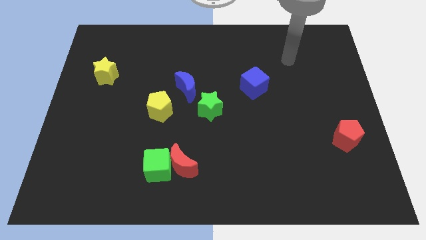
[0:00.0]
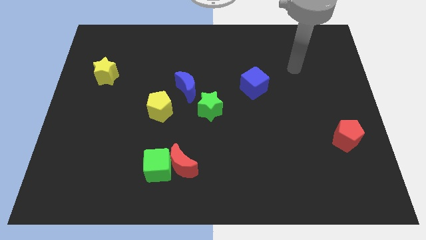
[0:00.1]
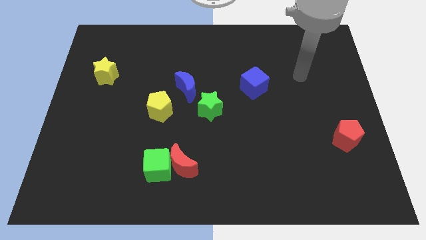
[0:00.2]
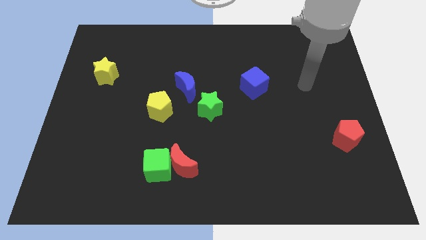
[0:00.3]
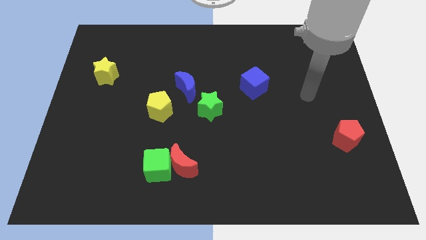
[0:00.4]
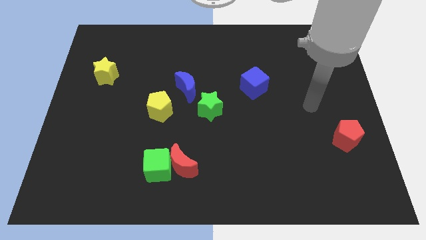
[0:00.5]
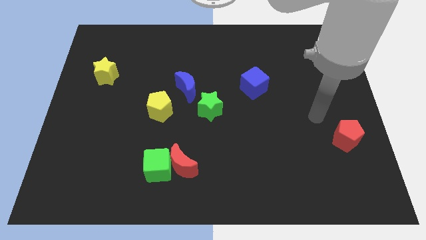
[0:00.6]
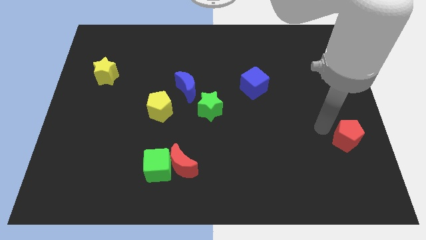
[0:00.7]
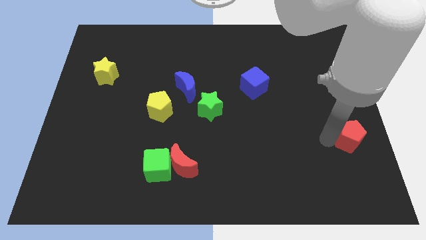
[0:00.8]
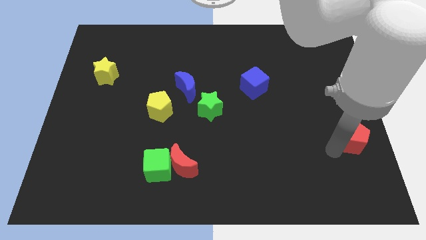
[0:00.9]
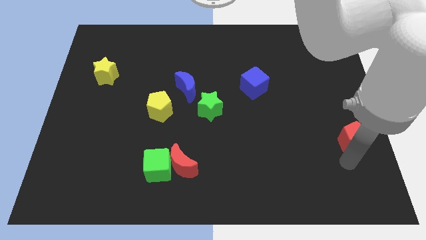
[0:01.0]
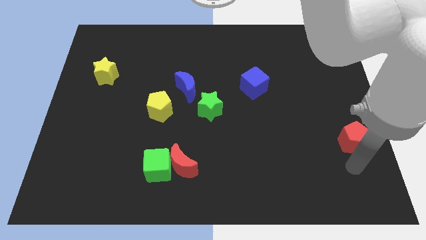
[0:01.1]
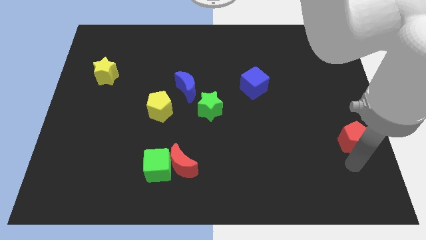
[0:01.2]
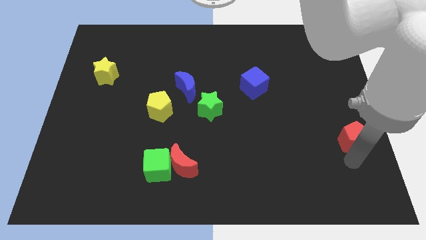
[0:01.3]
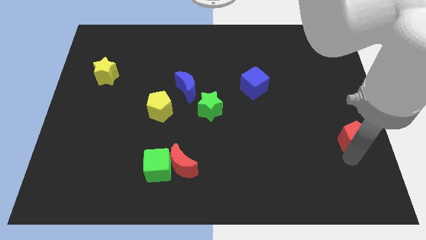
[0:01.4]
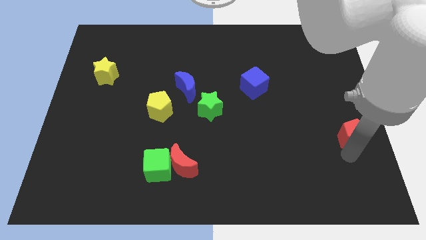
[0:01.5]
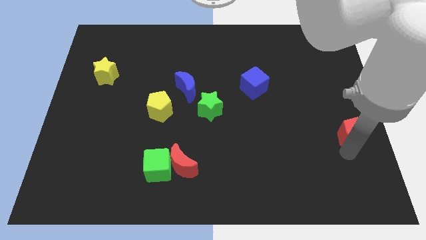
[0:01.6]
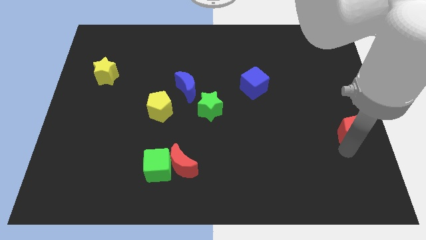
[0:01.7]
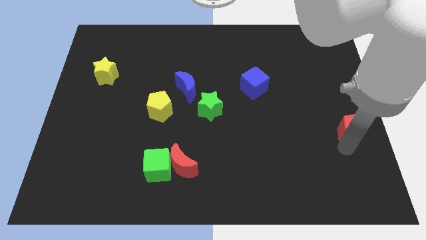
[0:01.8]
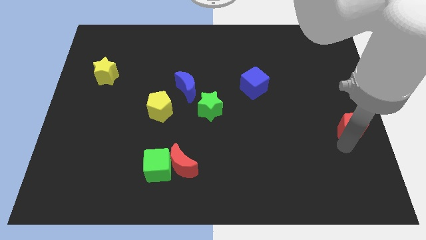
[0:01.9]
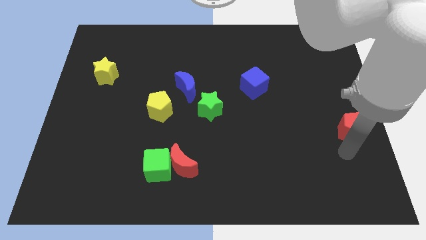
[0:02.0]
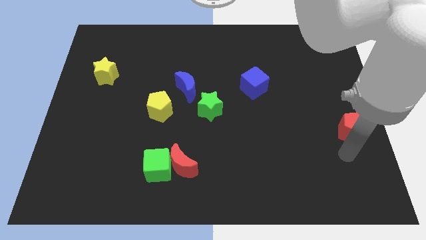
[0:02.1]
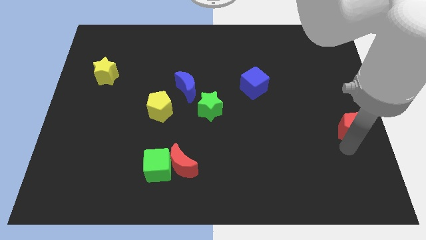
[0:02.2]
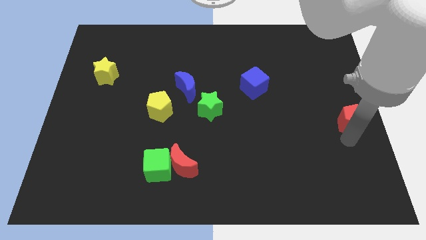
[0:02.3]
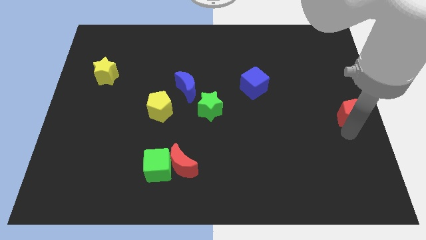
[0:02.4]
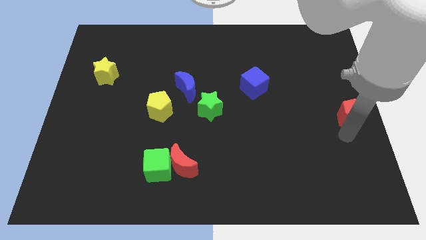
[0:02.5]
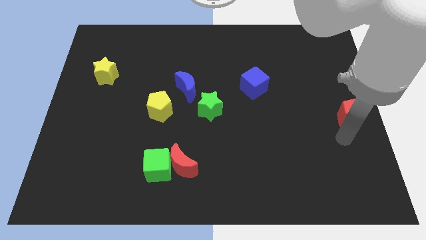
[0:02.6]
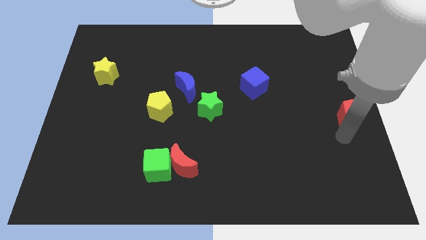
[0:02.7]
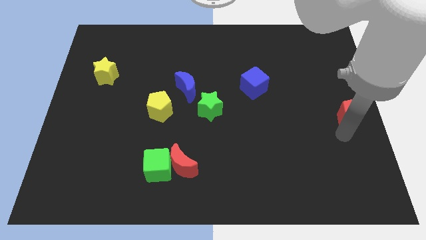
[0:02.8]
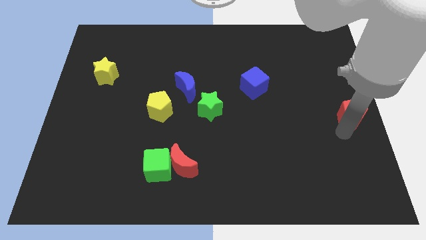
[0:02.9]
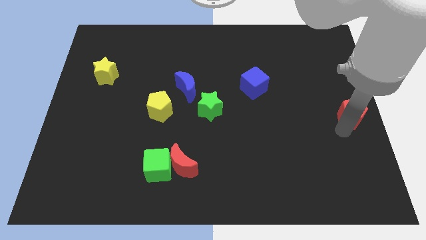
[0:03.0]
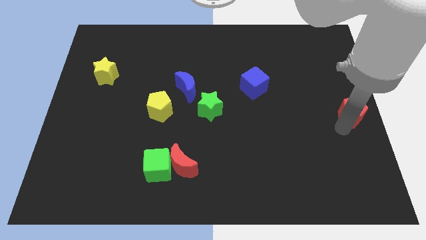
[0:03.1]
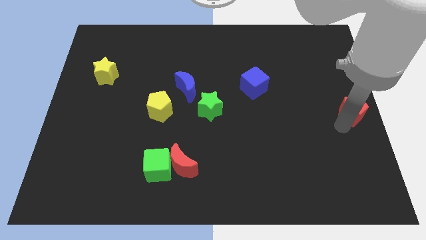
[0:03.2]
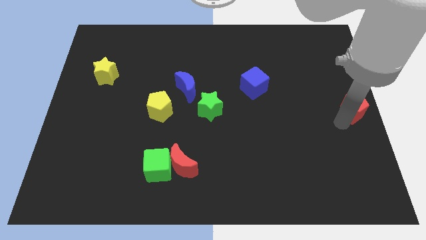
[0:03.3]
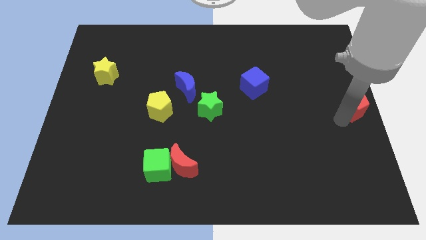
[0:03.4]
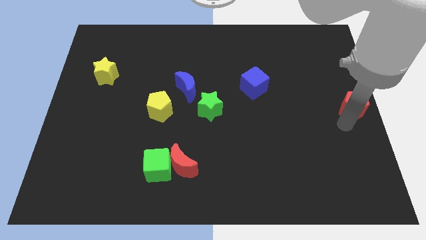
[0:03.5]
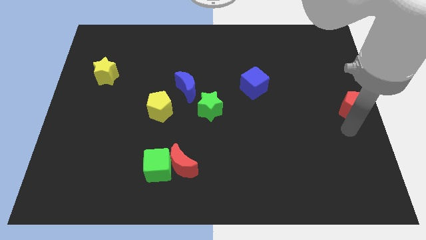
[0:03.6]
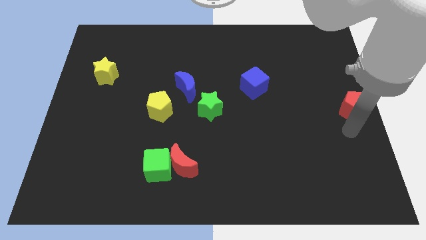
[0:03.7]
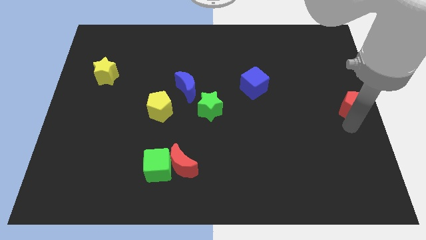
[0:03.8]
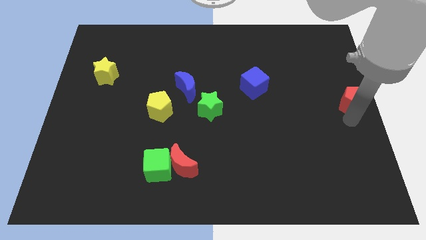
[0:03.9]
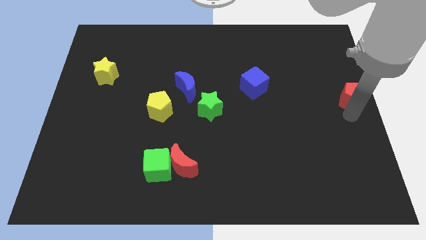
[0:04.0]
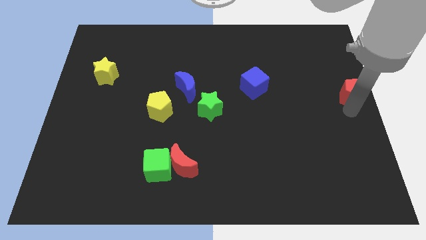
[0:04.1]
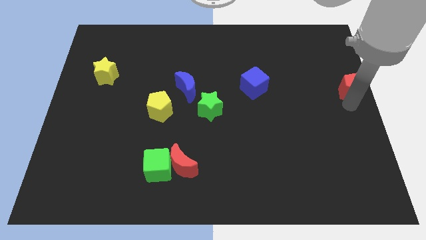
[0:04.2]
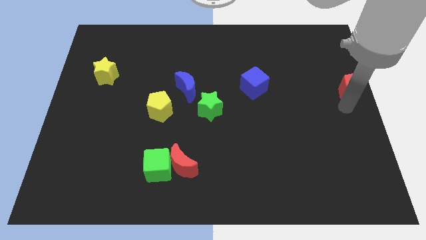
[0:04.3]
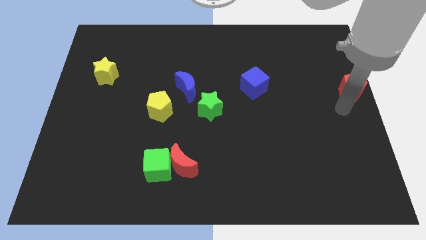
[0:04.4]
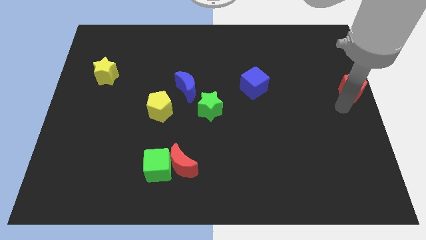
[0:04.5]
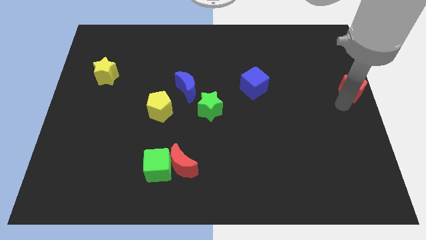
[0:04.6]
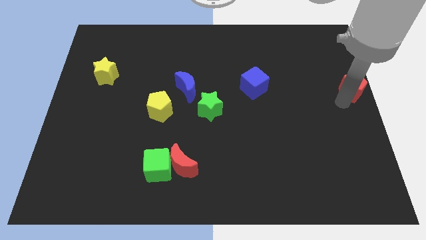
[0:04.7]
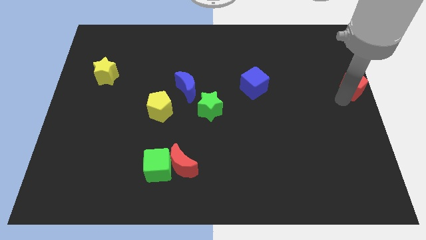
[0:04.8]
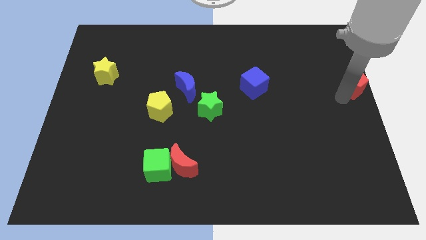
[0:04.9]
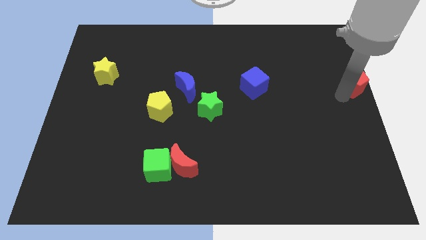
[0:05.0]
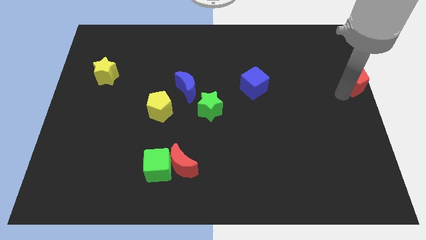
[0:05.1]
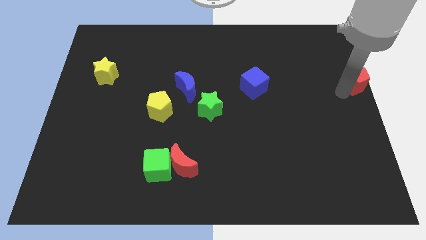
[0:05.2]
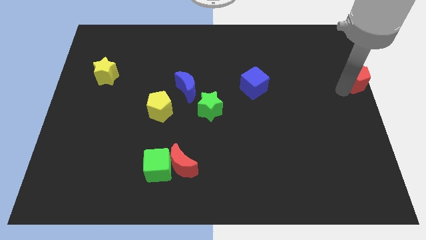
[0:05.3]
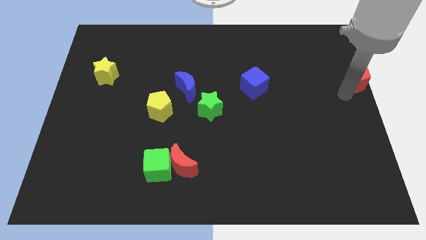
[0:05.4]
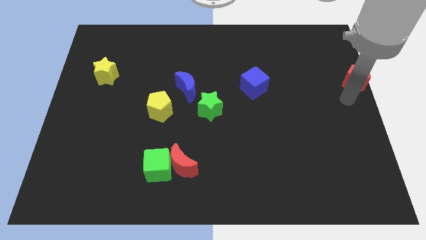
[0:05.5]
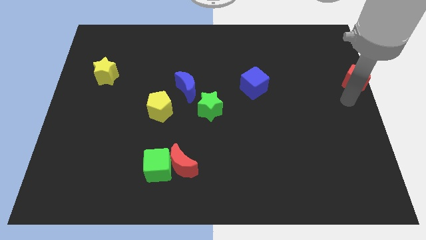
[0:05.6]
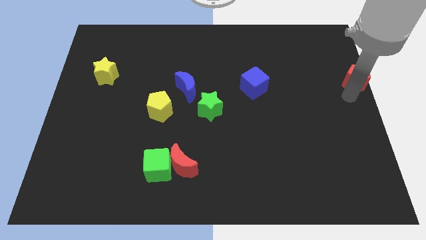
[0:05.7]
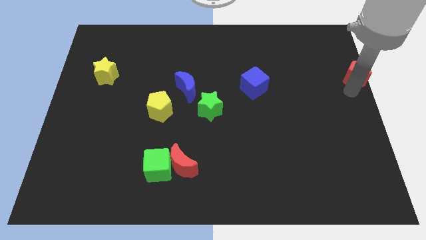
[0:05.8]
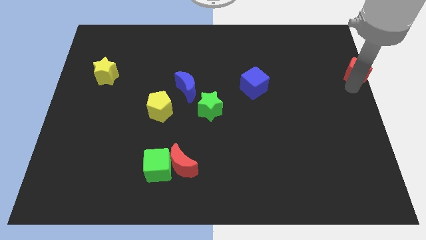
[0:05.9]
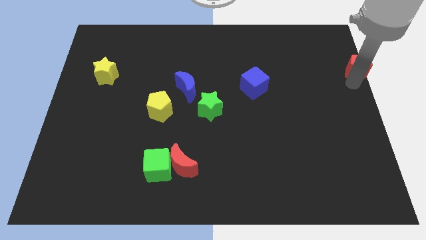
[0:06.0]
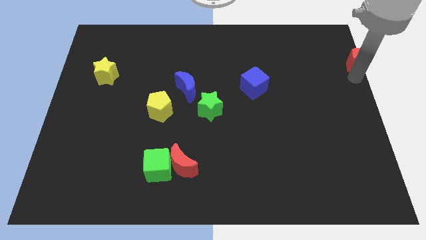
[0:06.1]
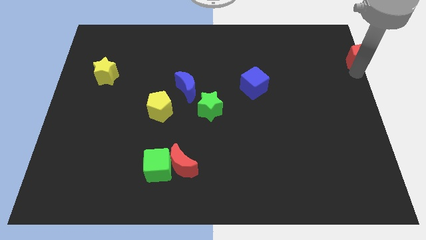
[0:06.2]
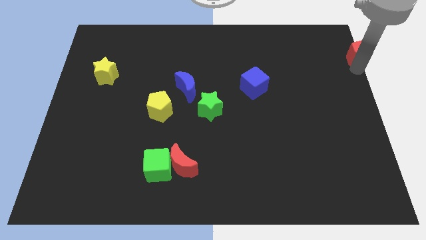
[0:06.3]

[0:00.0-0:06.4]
slide the red pentagon to the upper right corner
